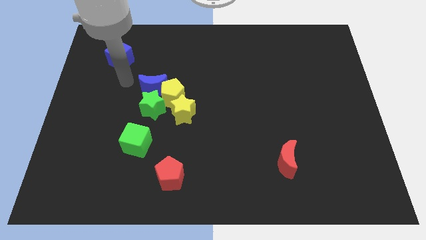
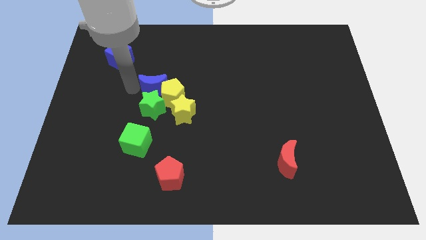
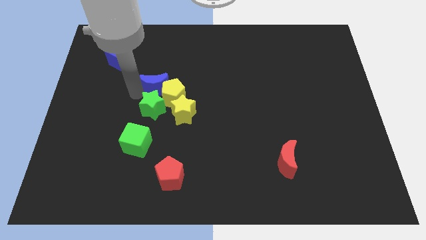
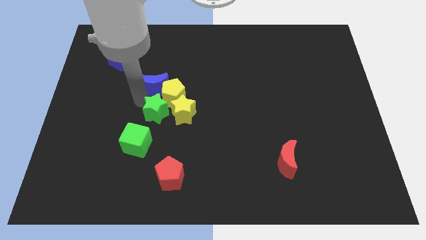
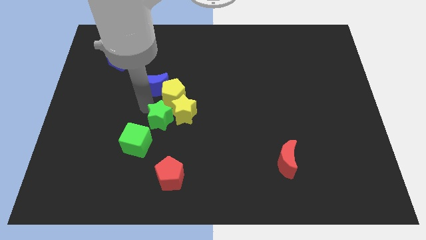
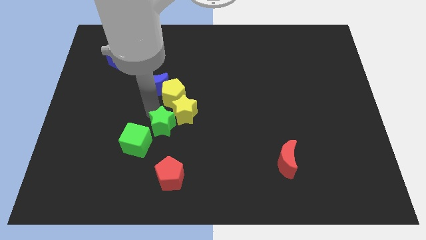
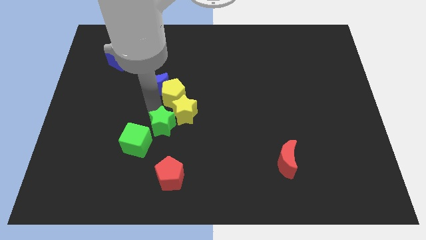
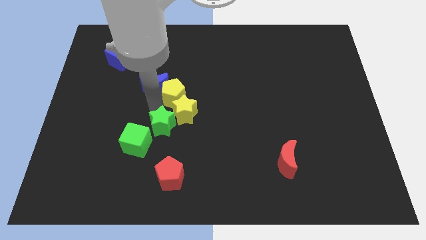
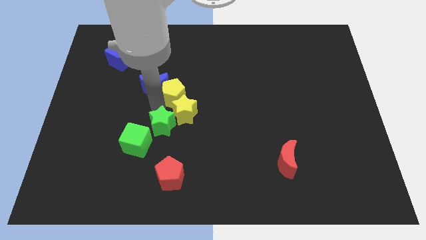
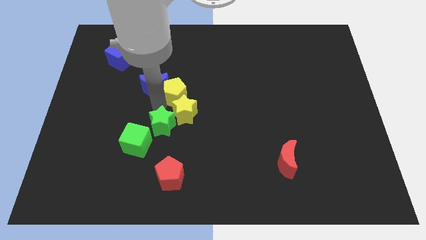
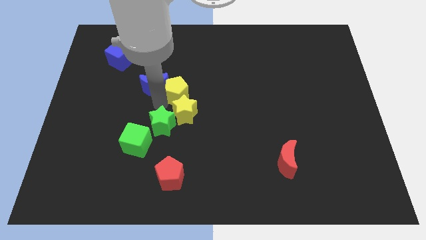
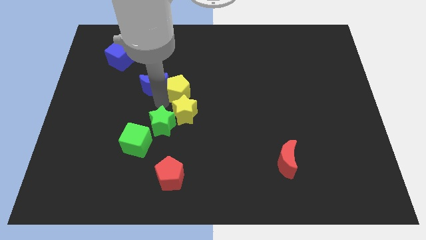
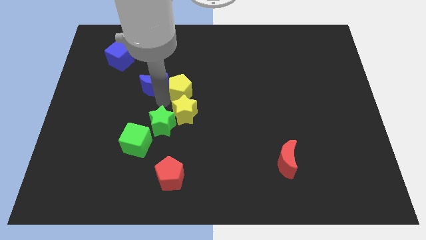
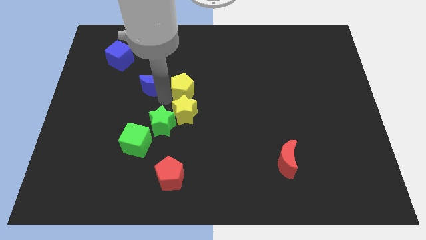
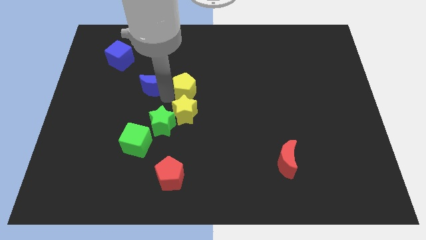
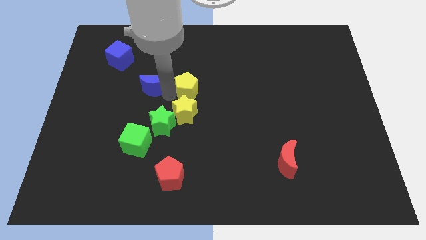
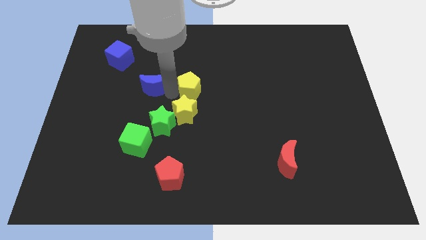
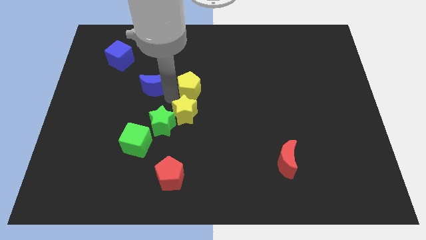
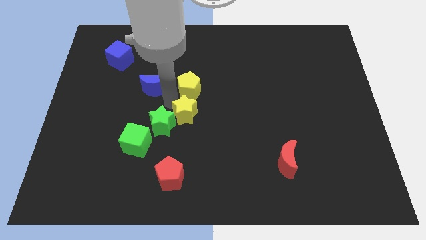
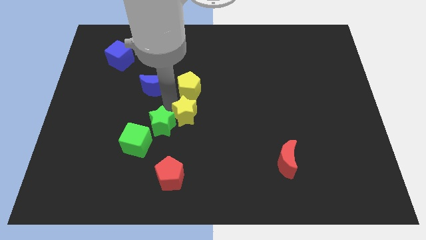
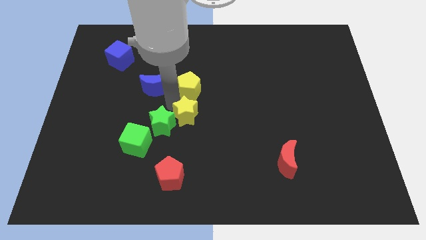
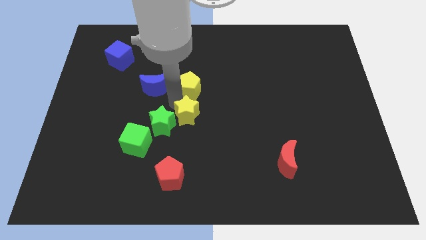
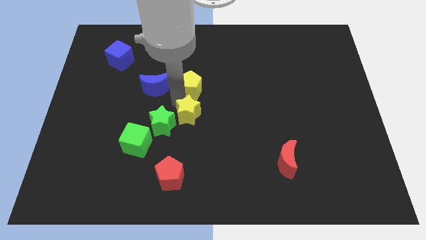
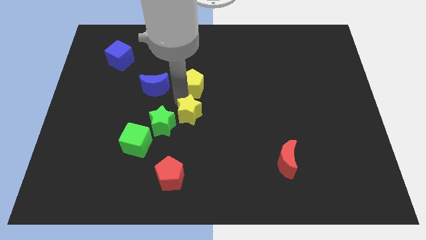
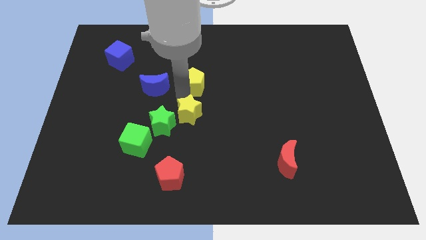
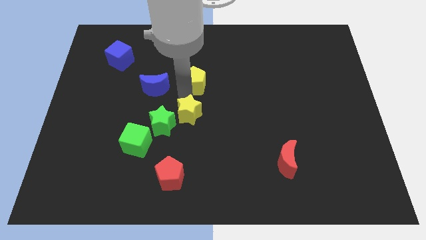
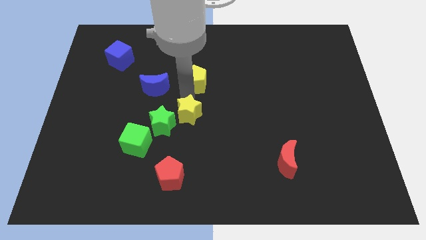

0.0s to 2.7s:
move the yellow pentagon away from the group

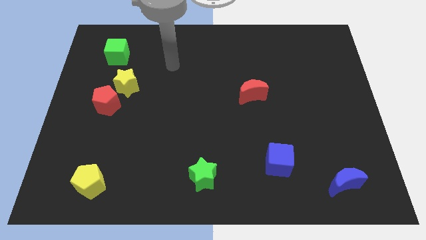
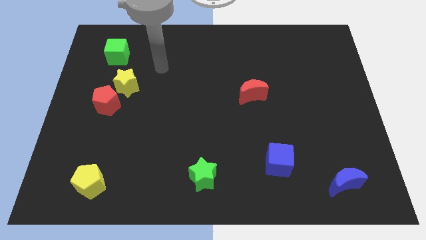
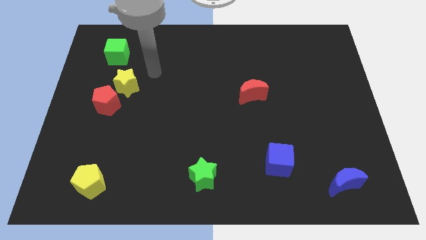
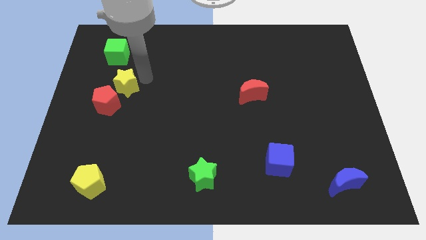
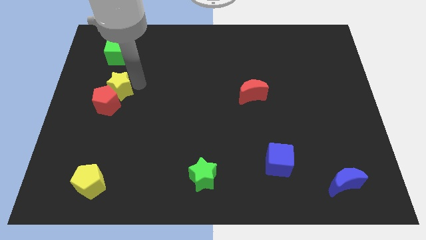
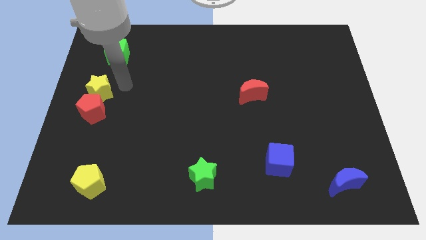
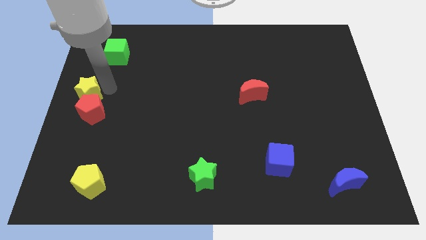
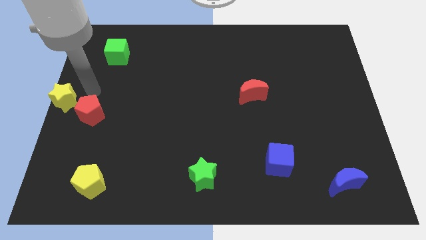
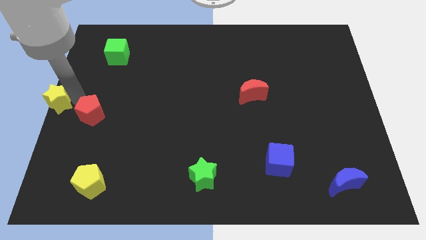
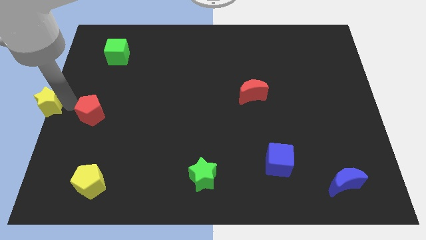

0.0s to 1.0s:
separate the red pentagon from the yellow star

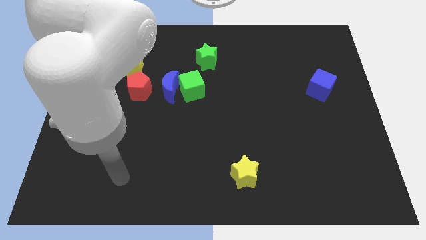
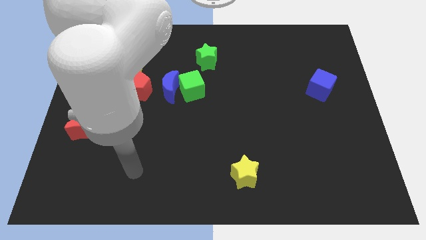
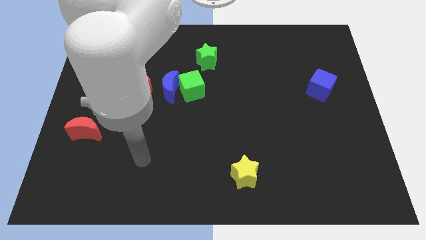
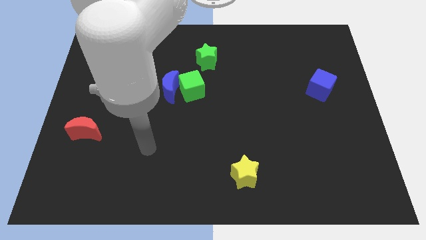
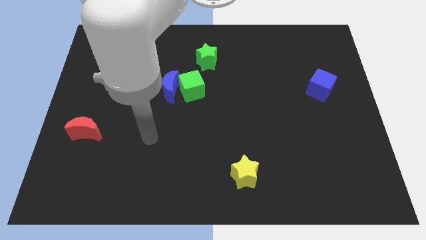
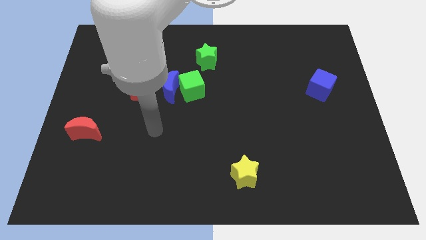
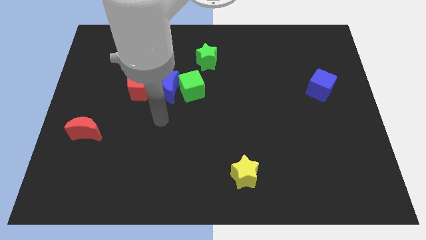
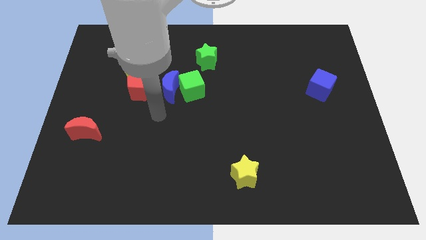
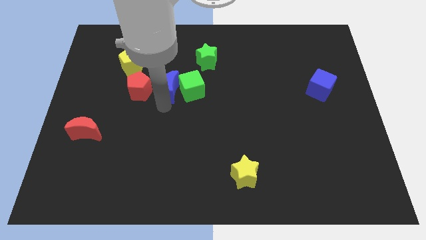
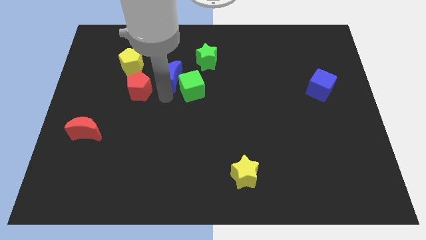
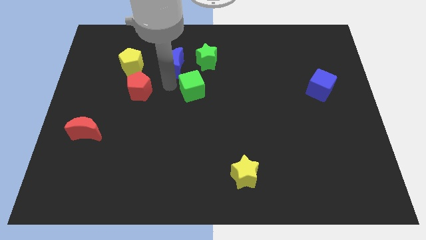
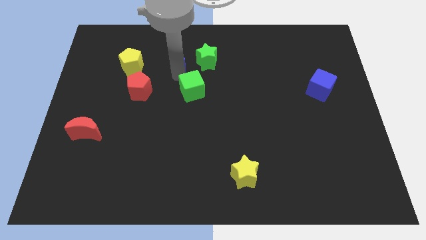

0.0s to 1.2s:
separate the green cube from the blue moon

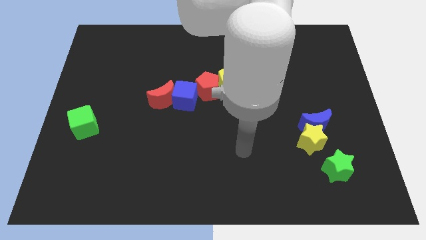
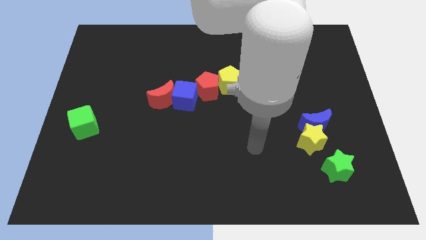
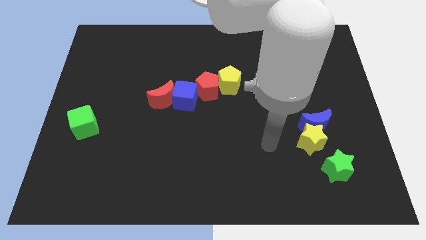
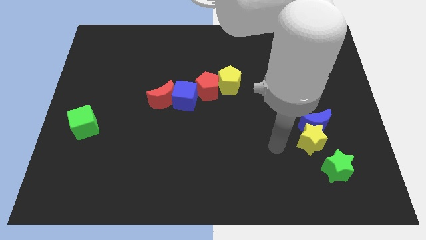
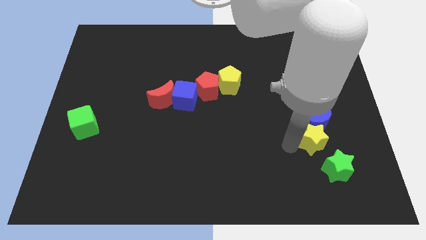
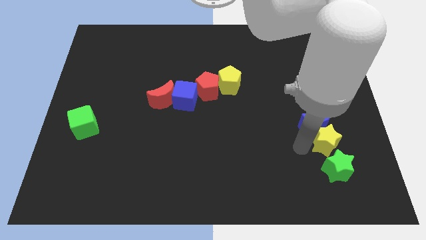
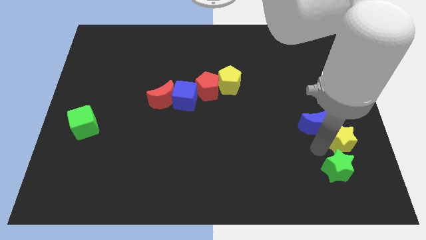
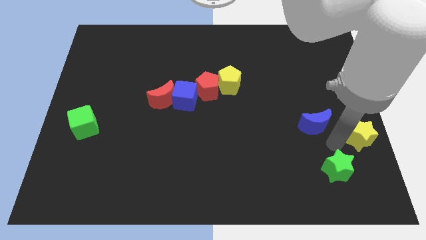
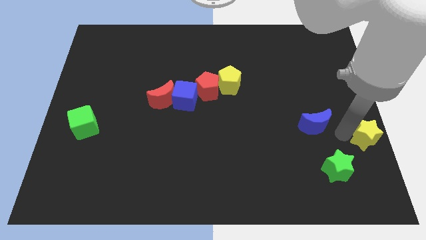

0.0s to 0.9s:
separate the blue moon from the yellow star

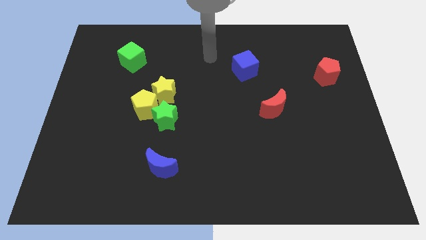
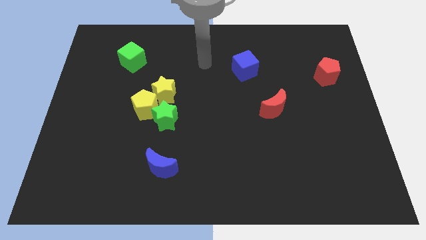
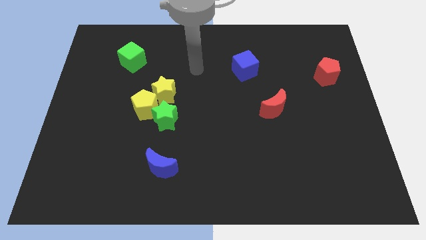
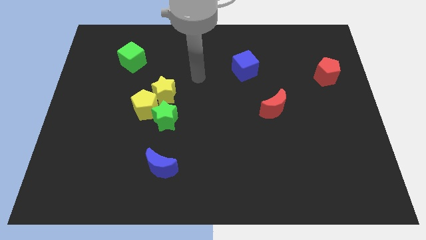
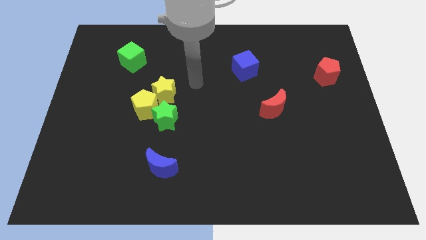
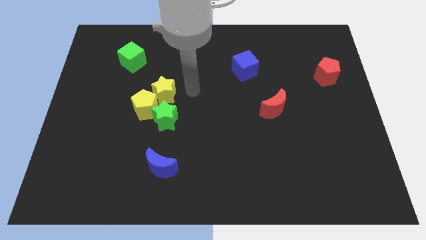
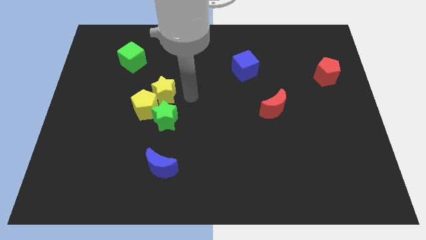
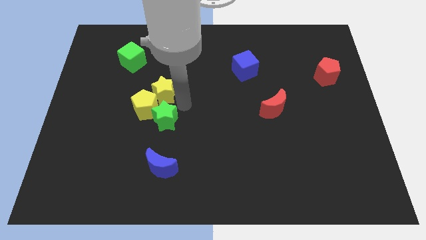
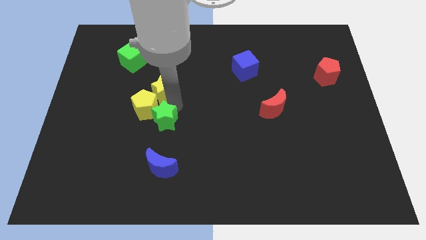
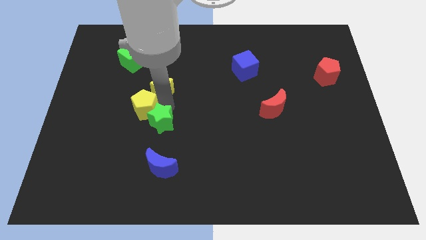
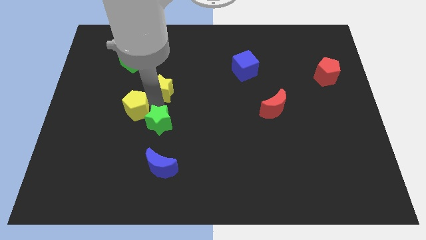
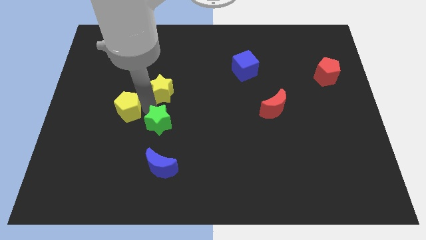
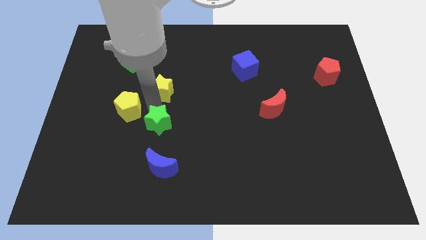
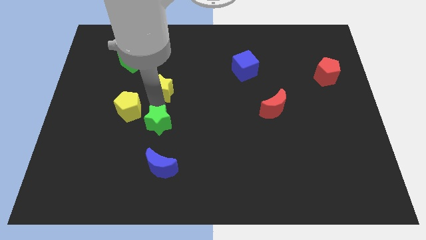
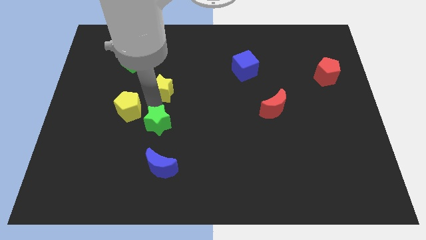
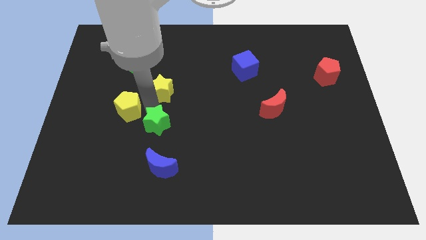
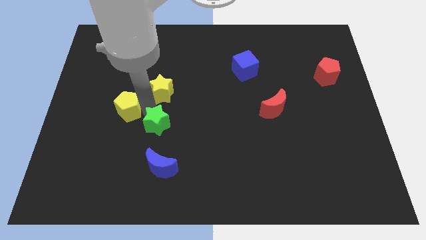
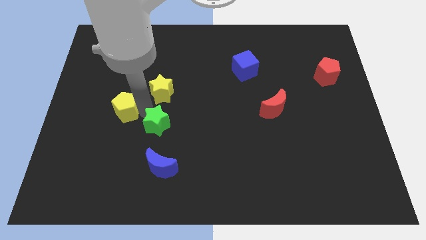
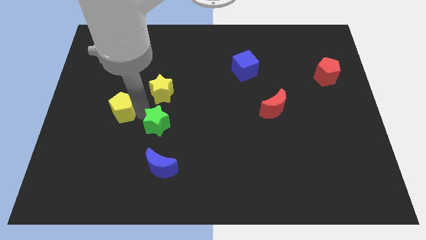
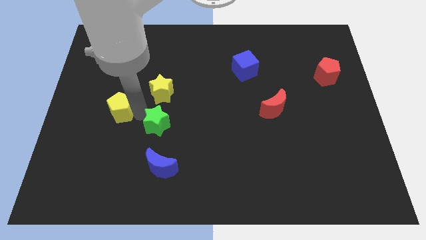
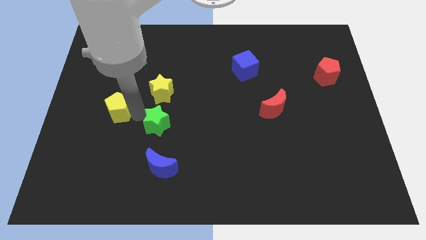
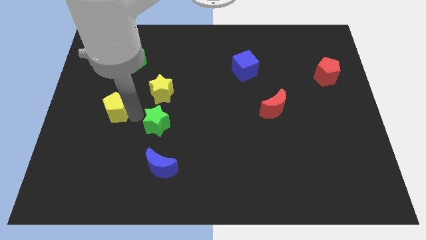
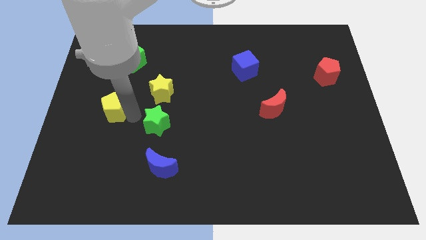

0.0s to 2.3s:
move the yellow pentagon away from the green star and yellow star

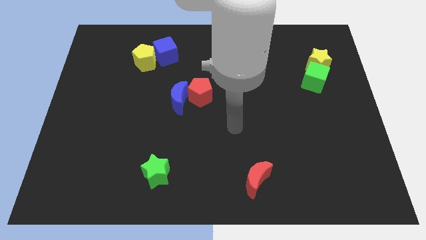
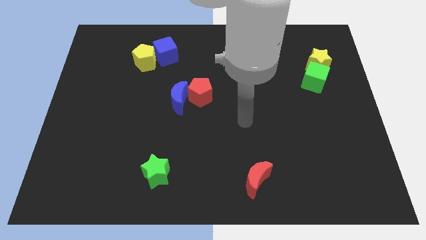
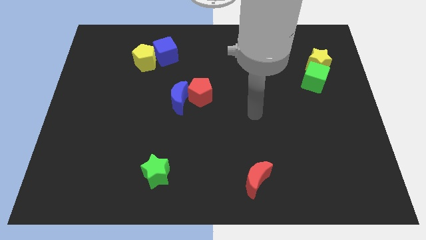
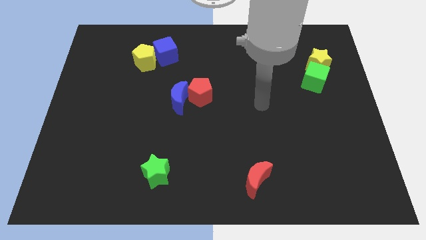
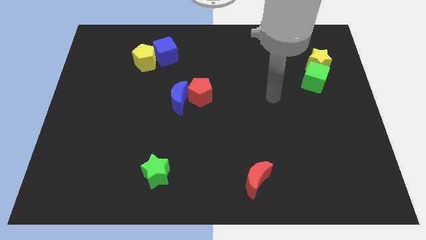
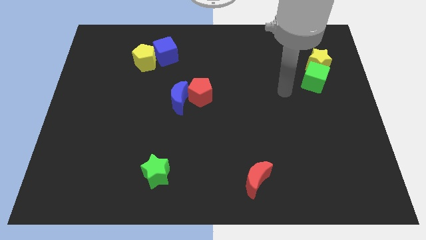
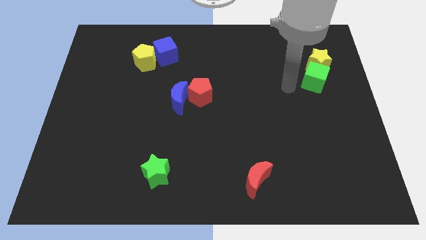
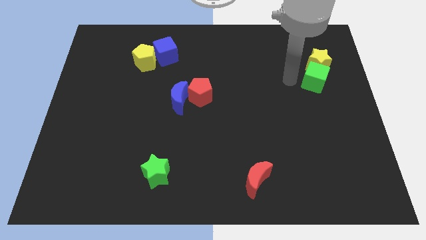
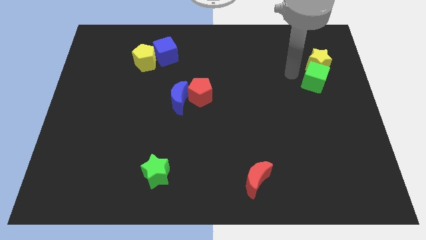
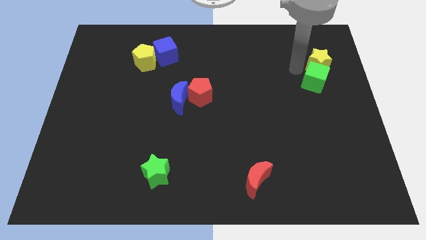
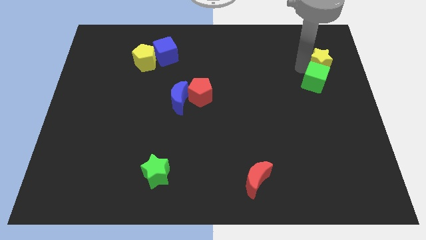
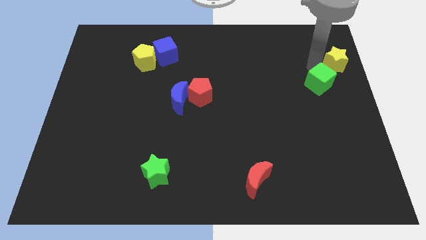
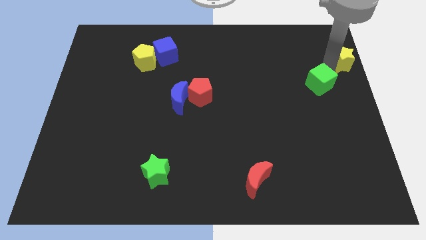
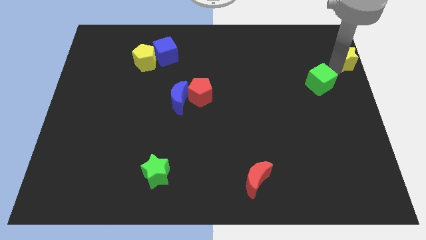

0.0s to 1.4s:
move the green cube away from the yellow star
